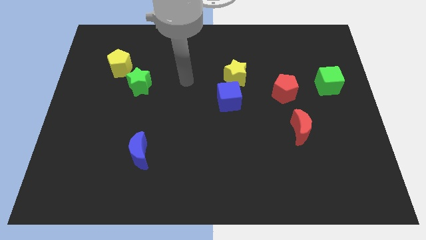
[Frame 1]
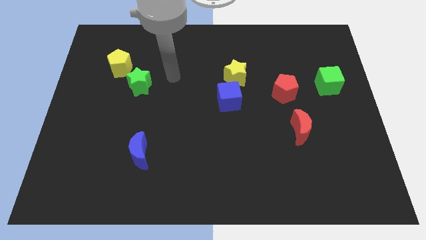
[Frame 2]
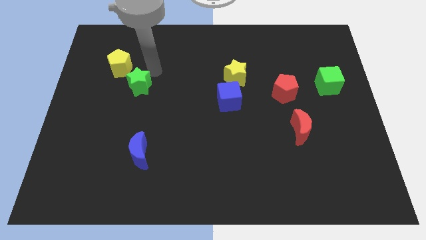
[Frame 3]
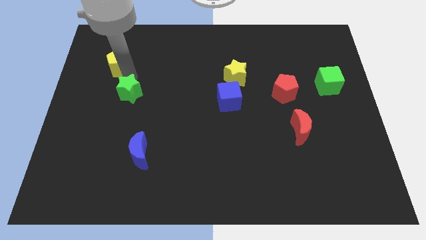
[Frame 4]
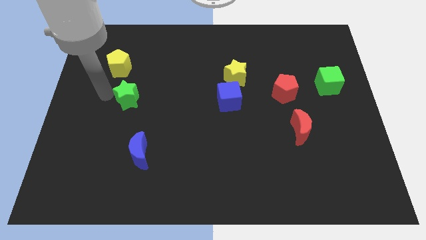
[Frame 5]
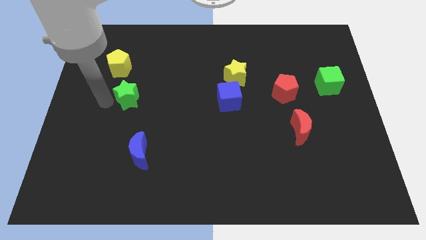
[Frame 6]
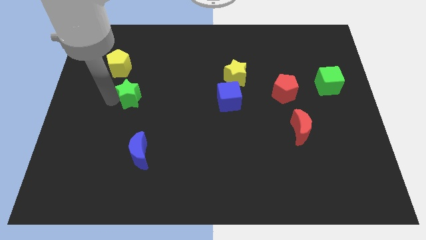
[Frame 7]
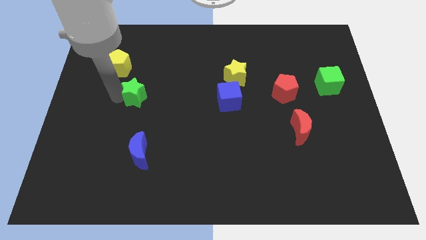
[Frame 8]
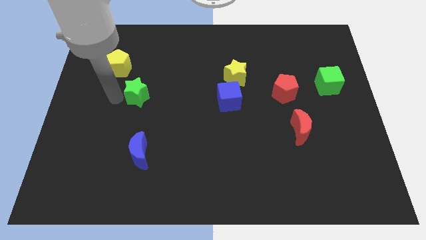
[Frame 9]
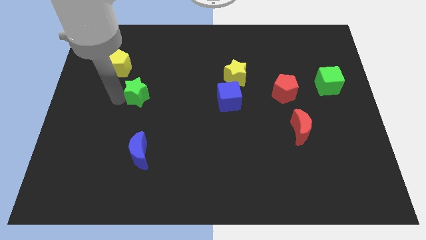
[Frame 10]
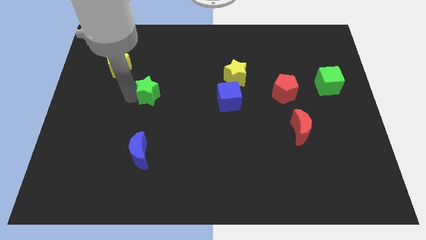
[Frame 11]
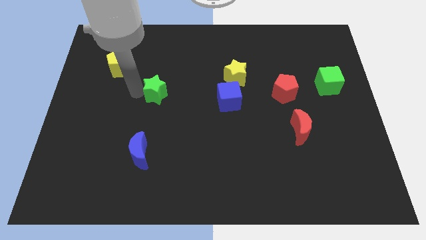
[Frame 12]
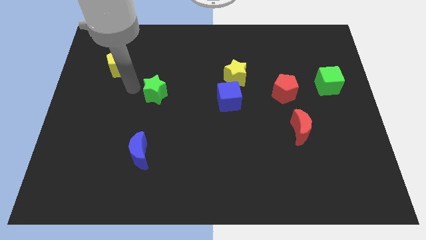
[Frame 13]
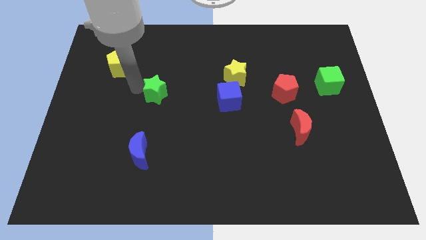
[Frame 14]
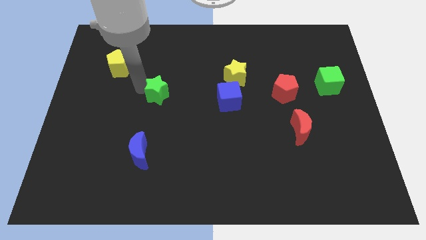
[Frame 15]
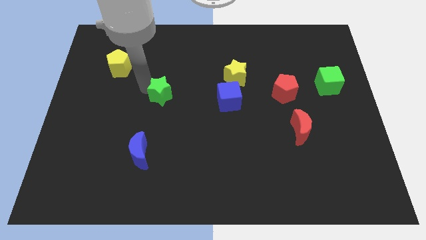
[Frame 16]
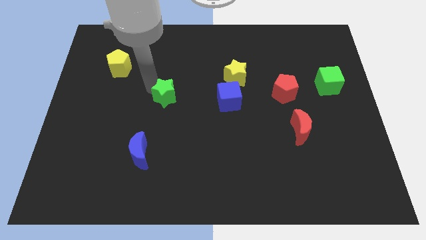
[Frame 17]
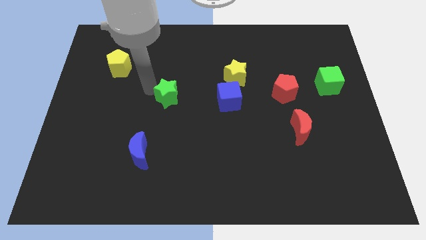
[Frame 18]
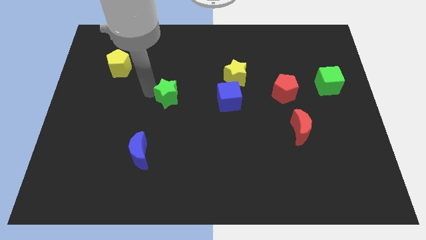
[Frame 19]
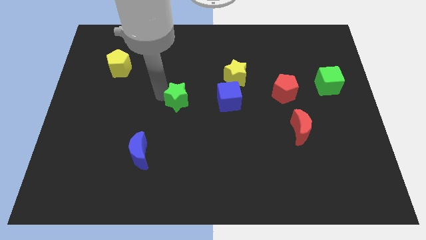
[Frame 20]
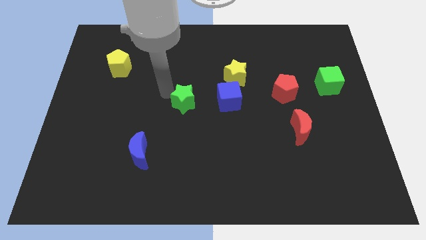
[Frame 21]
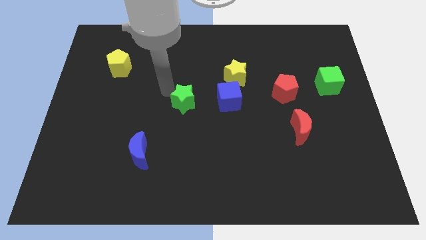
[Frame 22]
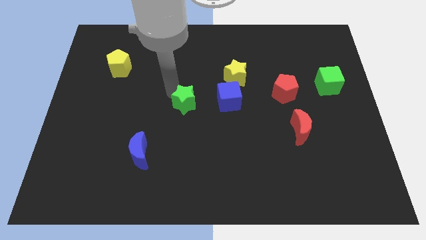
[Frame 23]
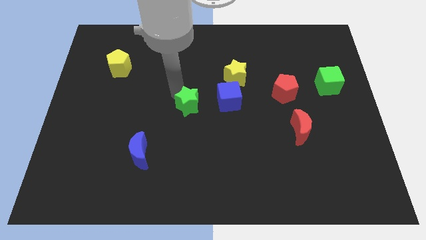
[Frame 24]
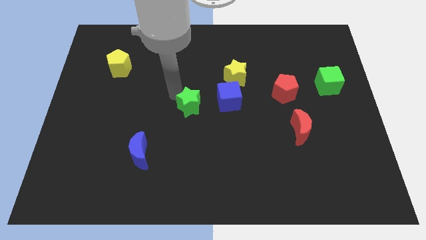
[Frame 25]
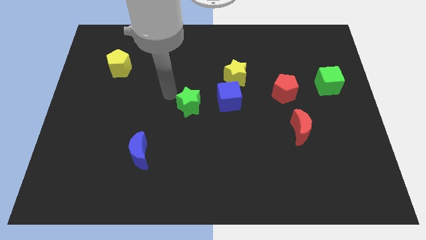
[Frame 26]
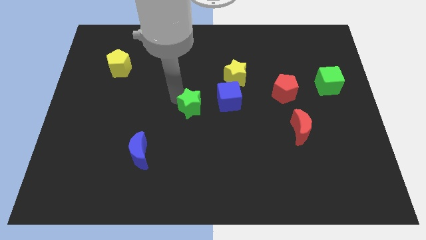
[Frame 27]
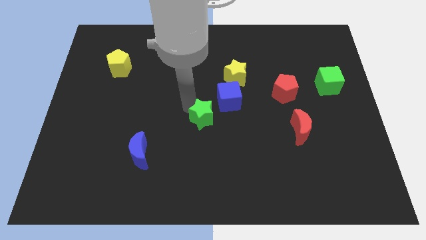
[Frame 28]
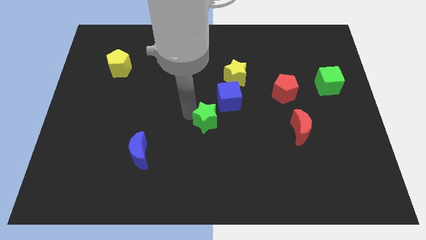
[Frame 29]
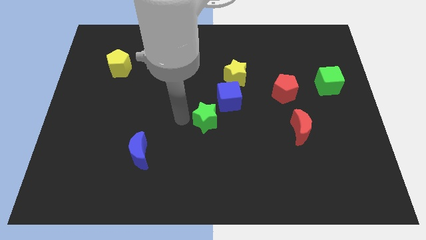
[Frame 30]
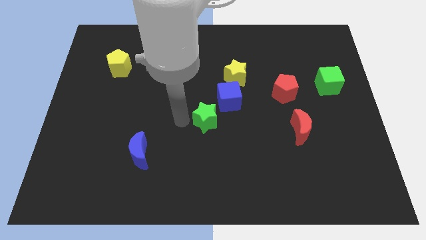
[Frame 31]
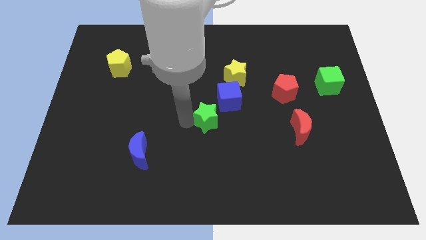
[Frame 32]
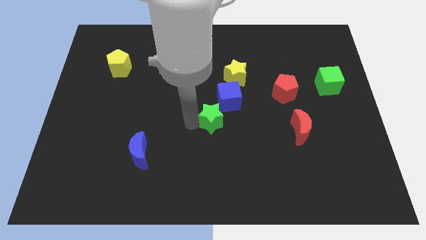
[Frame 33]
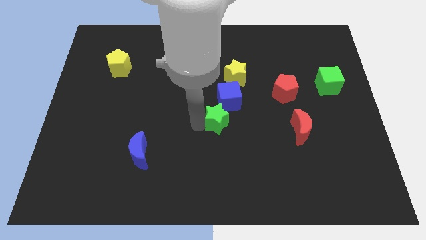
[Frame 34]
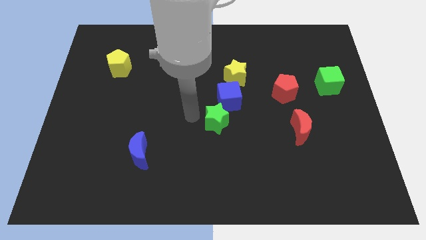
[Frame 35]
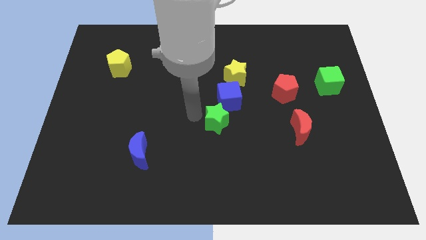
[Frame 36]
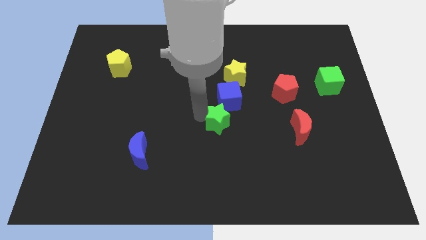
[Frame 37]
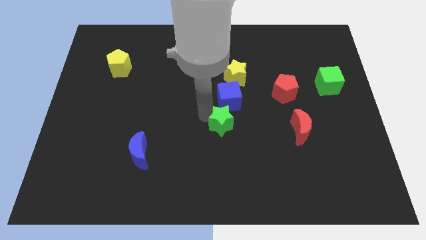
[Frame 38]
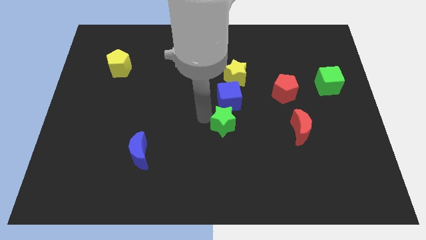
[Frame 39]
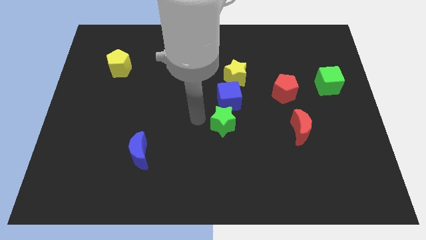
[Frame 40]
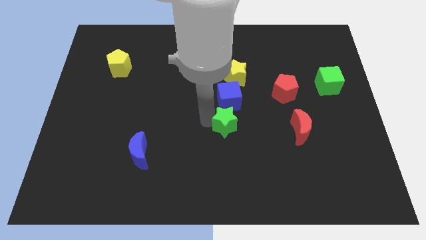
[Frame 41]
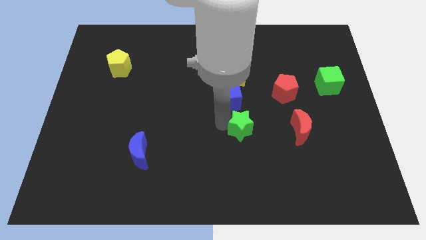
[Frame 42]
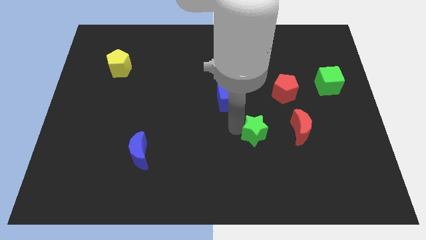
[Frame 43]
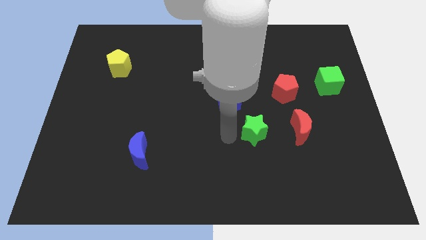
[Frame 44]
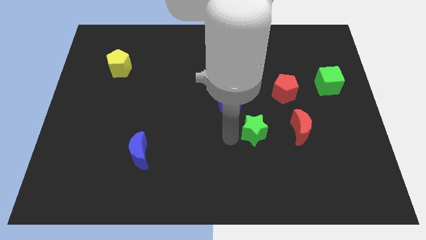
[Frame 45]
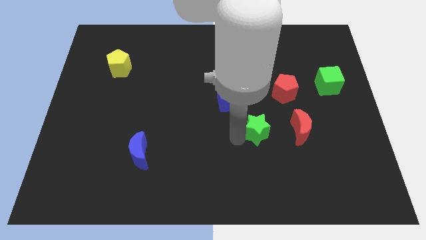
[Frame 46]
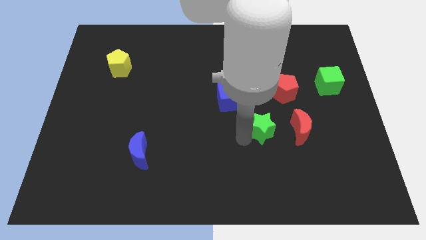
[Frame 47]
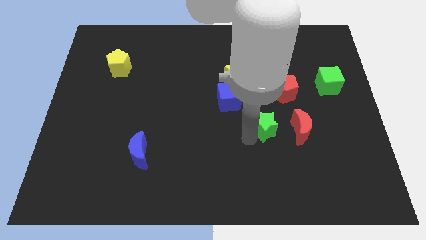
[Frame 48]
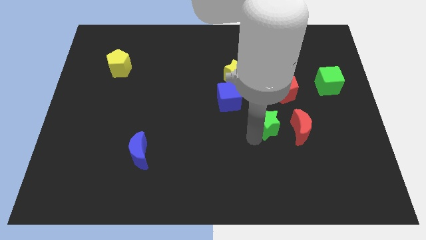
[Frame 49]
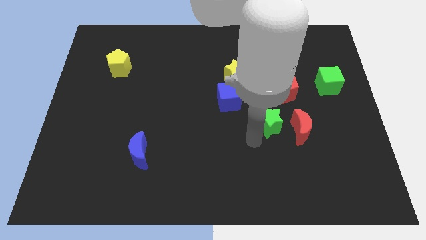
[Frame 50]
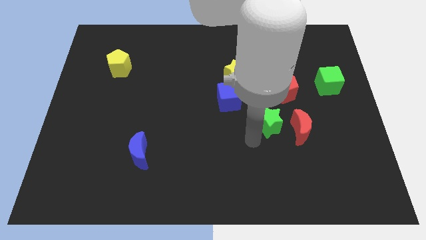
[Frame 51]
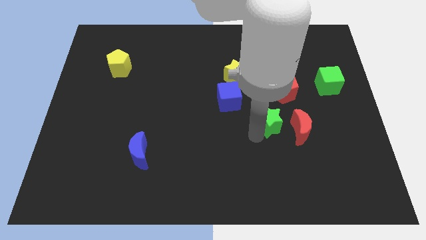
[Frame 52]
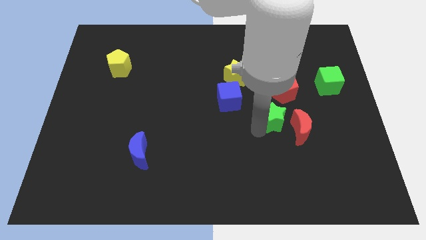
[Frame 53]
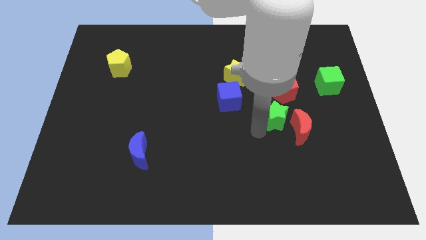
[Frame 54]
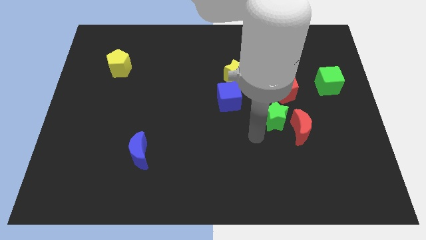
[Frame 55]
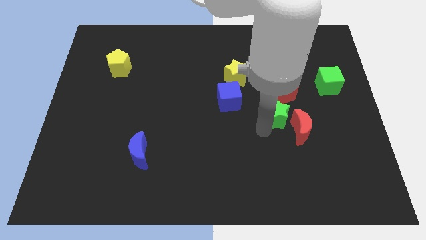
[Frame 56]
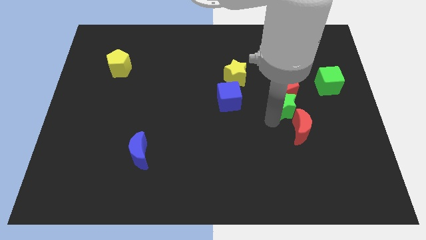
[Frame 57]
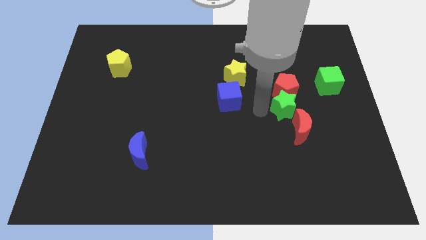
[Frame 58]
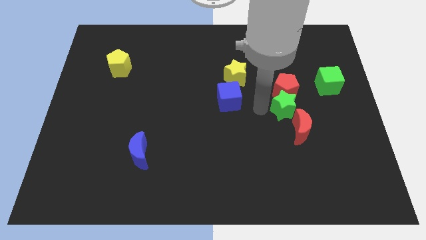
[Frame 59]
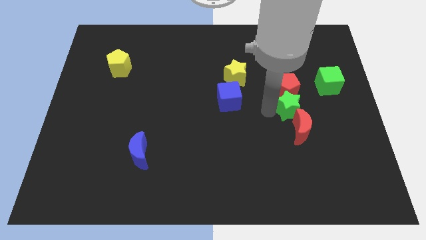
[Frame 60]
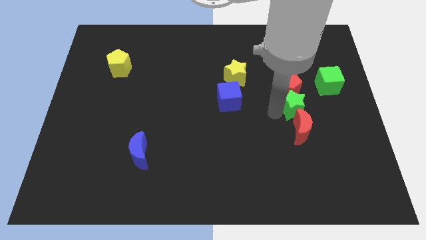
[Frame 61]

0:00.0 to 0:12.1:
slide the green star to the top right of the red moon

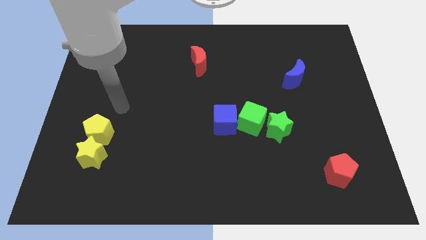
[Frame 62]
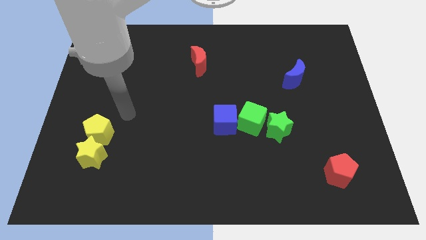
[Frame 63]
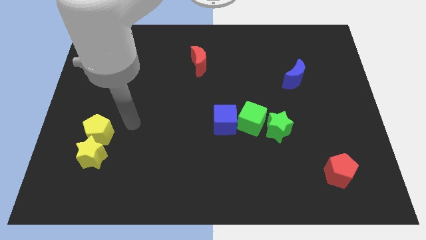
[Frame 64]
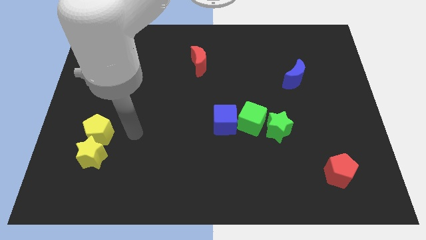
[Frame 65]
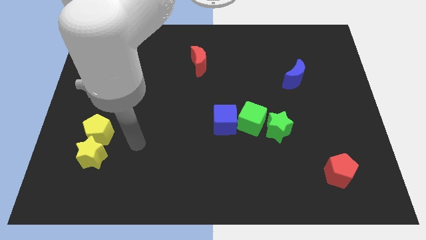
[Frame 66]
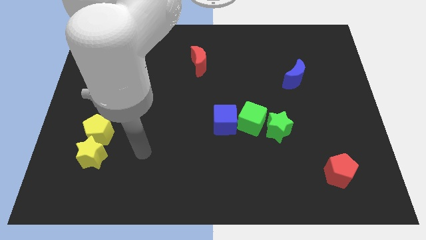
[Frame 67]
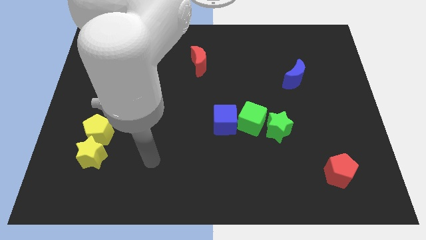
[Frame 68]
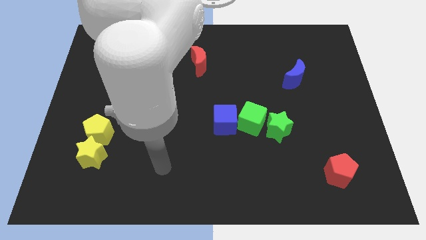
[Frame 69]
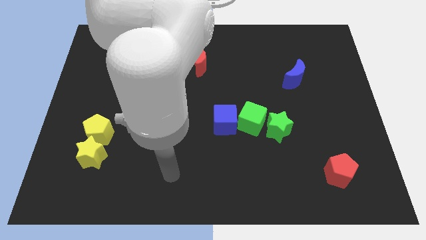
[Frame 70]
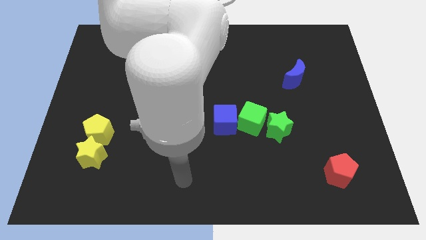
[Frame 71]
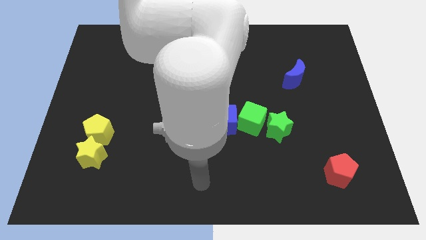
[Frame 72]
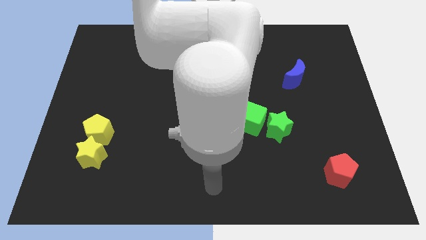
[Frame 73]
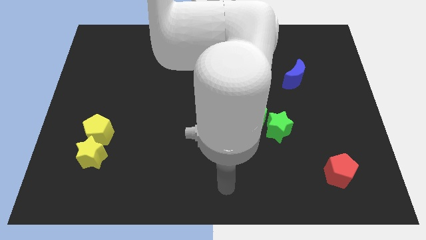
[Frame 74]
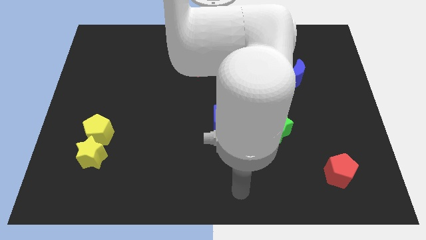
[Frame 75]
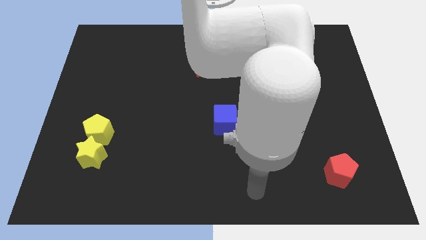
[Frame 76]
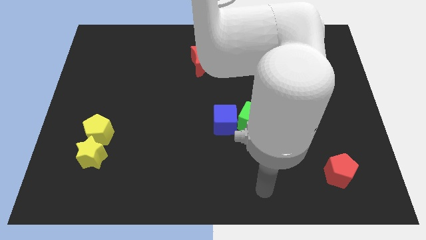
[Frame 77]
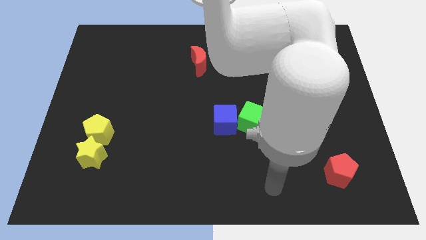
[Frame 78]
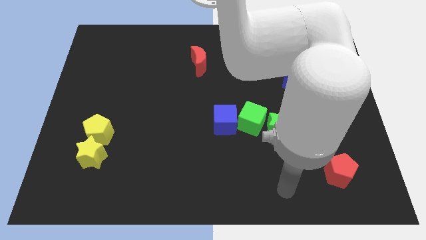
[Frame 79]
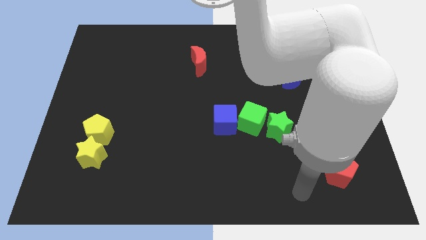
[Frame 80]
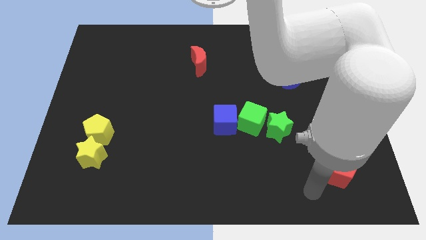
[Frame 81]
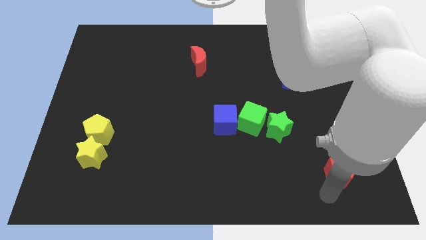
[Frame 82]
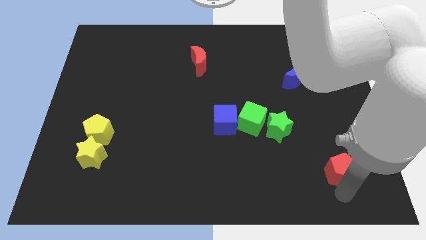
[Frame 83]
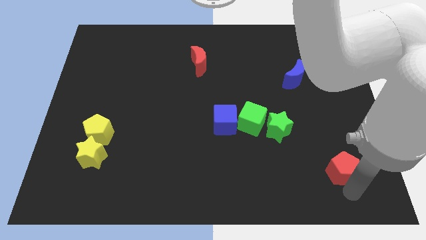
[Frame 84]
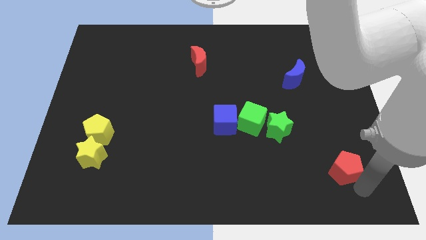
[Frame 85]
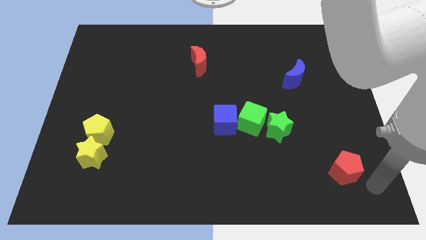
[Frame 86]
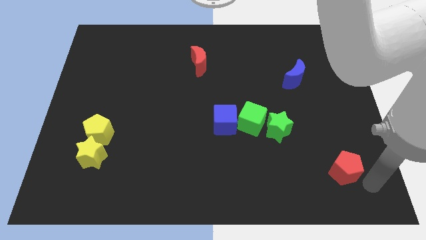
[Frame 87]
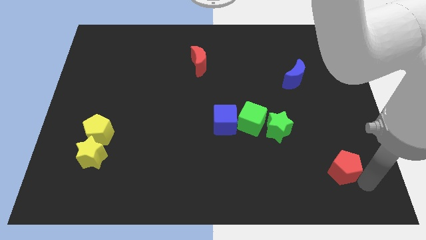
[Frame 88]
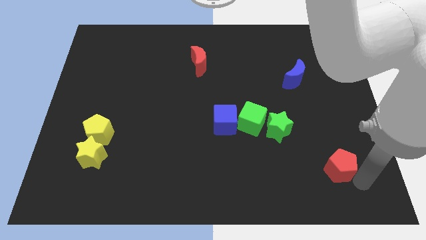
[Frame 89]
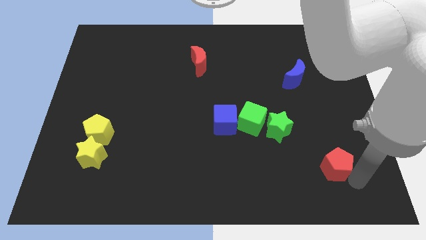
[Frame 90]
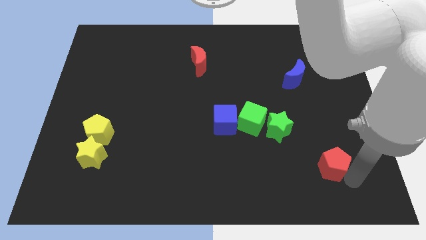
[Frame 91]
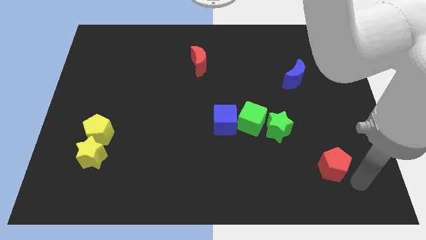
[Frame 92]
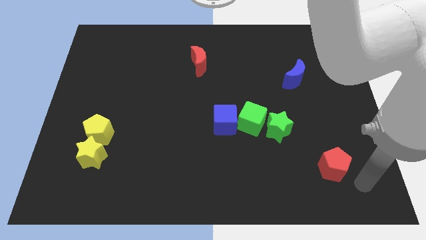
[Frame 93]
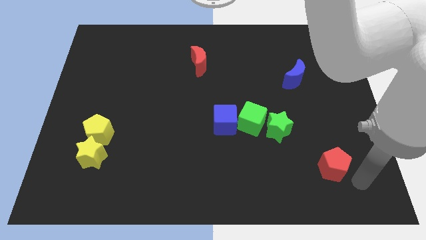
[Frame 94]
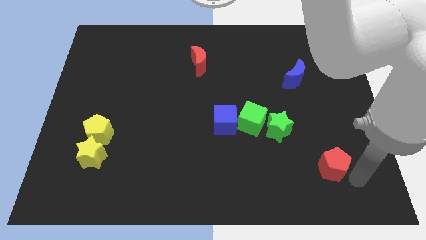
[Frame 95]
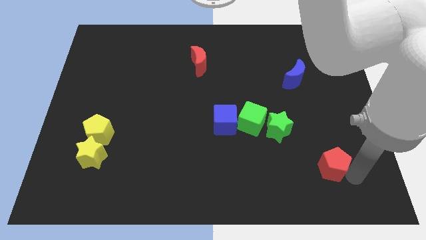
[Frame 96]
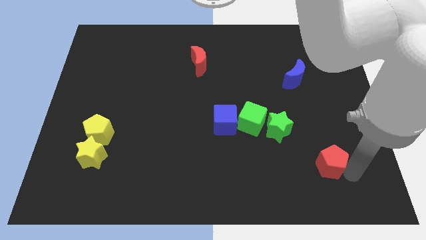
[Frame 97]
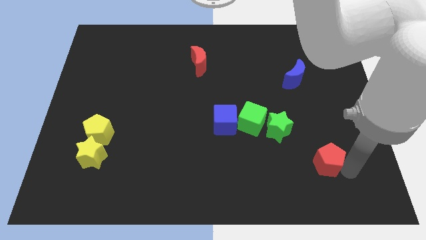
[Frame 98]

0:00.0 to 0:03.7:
put the red pentagon to the bottom right side of the green star
